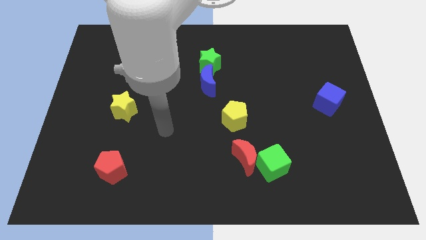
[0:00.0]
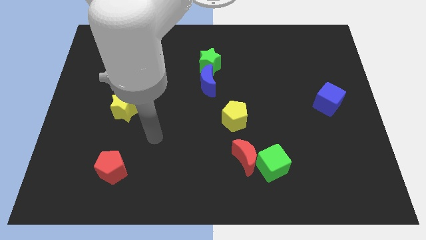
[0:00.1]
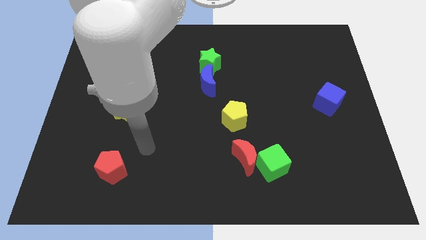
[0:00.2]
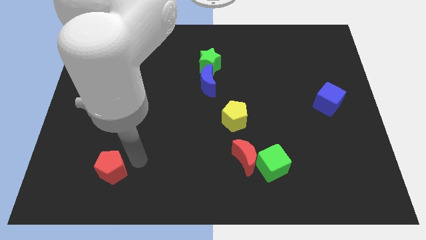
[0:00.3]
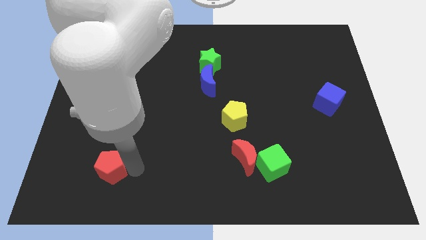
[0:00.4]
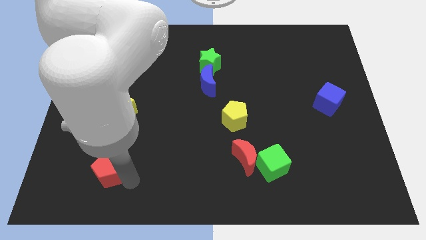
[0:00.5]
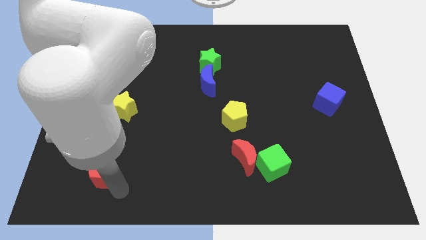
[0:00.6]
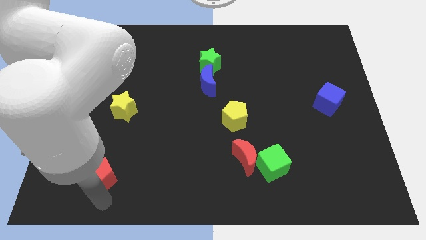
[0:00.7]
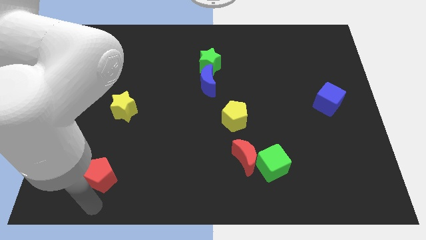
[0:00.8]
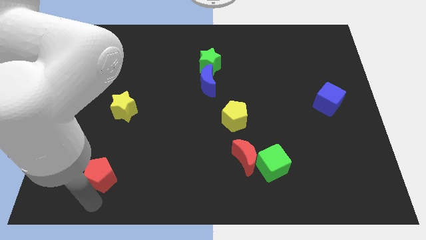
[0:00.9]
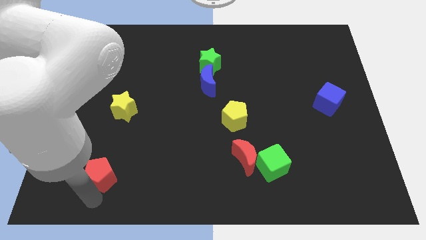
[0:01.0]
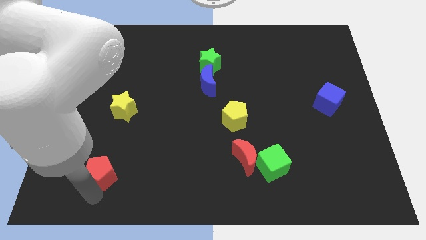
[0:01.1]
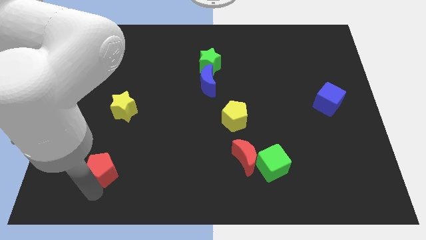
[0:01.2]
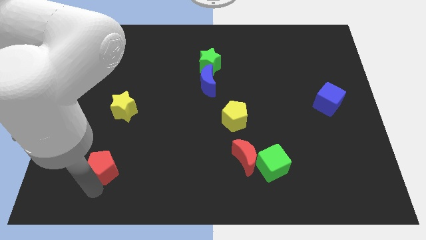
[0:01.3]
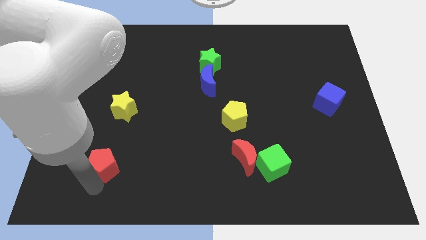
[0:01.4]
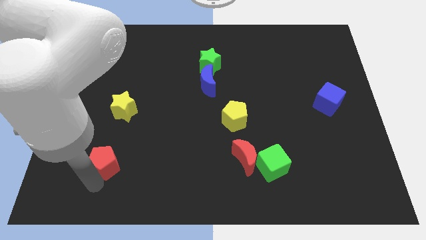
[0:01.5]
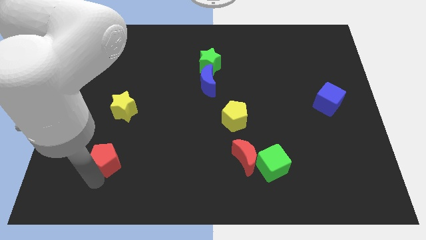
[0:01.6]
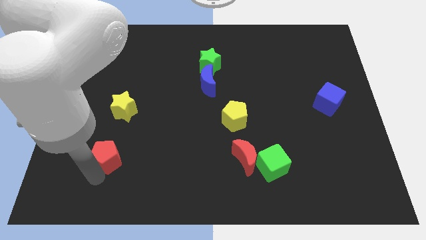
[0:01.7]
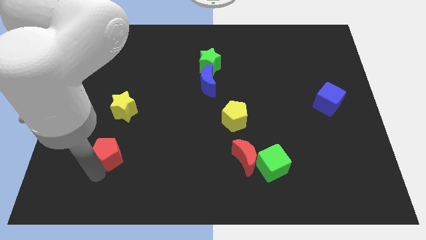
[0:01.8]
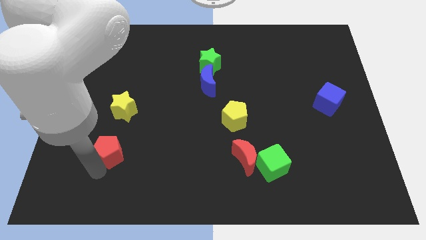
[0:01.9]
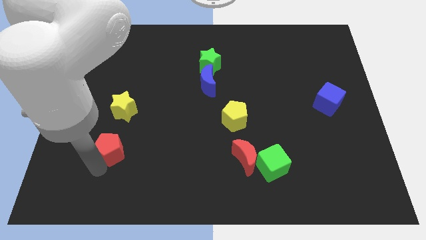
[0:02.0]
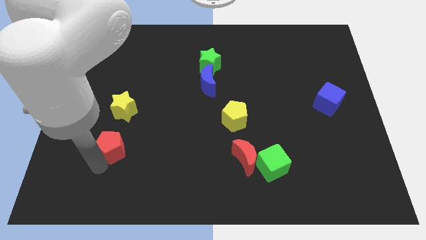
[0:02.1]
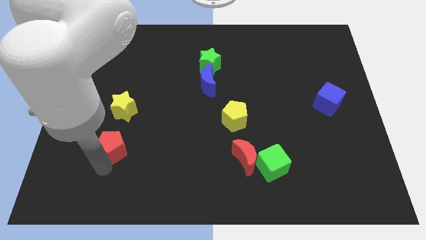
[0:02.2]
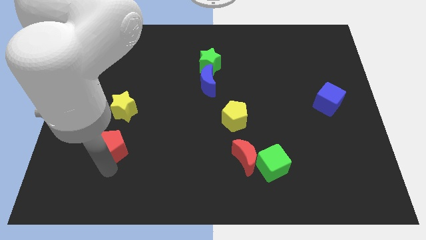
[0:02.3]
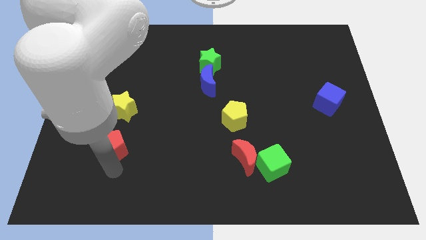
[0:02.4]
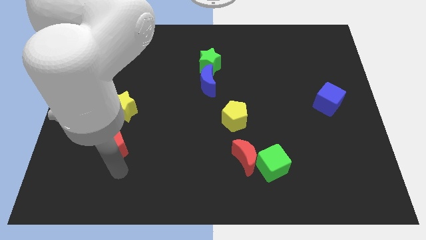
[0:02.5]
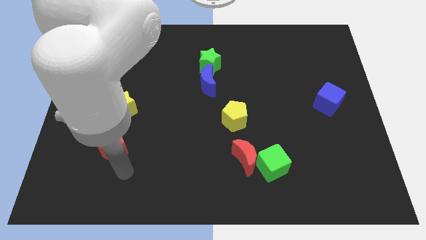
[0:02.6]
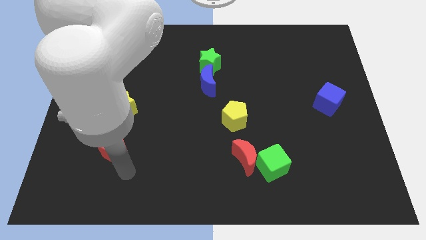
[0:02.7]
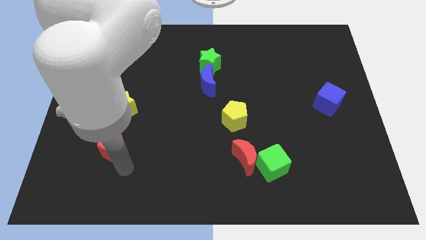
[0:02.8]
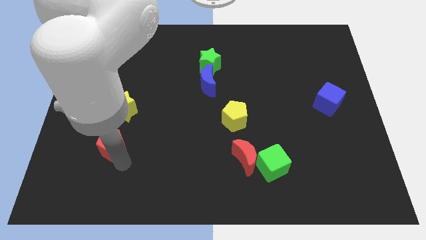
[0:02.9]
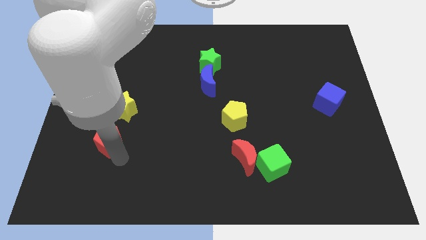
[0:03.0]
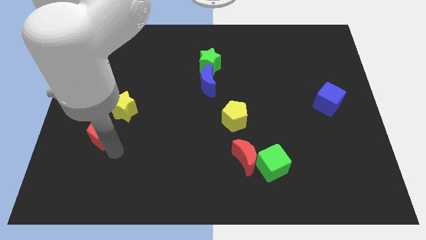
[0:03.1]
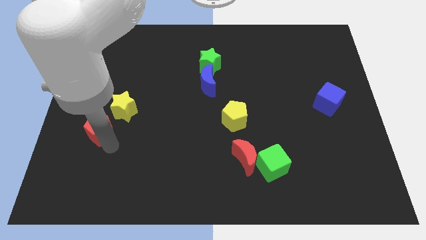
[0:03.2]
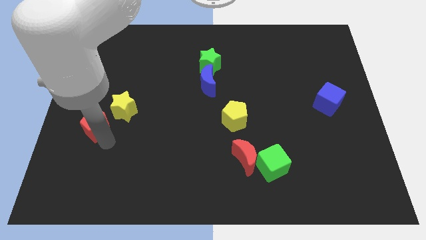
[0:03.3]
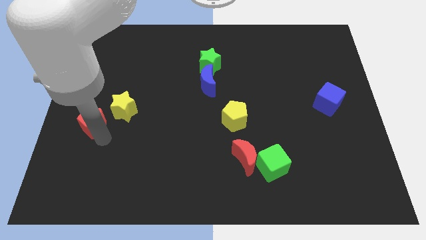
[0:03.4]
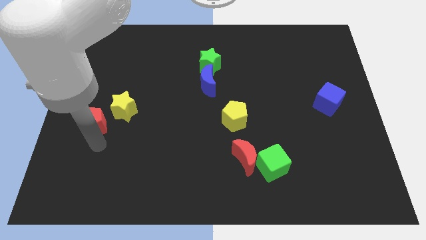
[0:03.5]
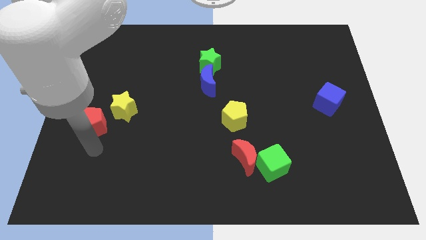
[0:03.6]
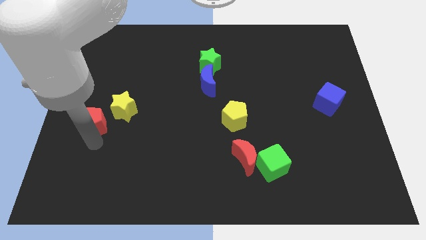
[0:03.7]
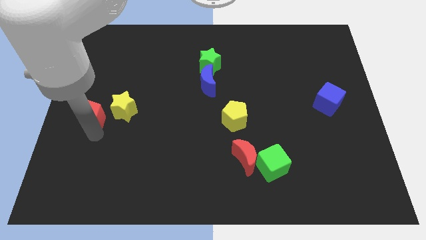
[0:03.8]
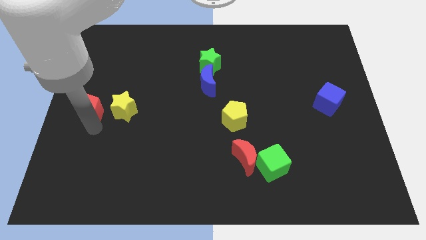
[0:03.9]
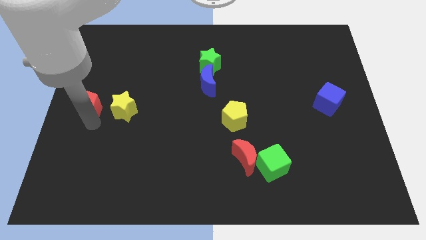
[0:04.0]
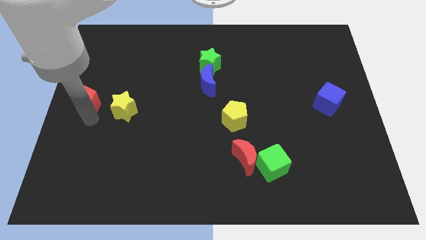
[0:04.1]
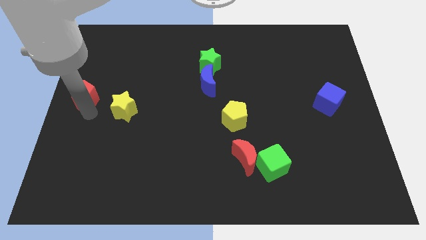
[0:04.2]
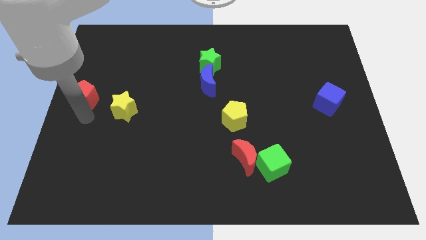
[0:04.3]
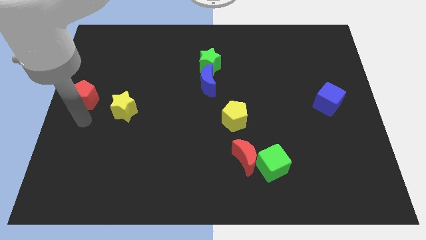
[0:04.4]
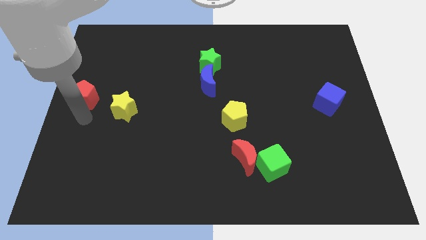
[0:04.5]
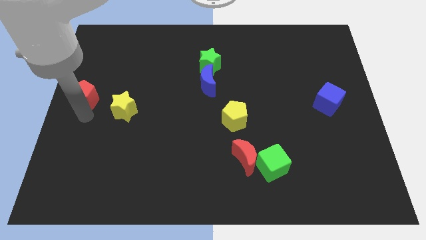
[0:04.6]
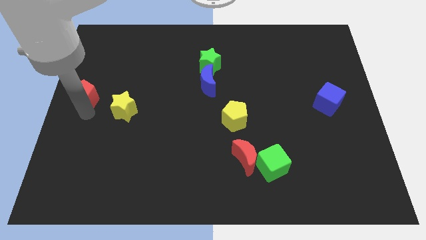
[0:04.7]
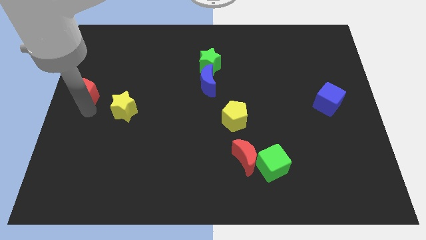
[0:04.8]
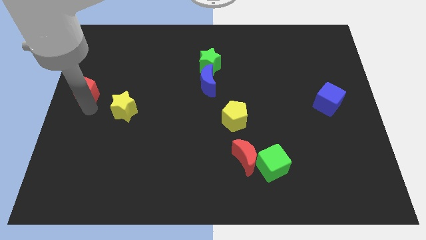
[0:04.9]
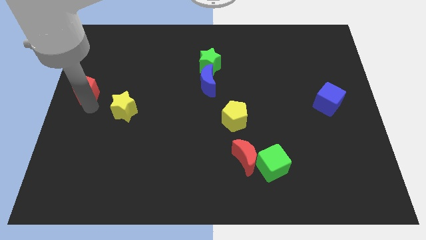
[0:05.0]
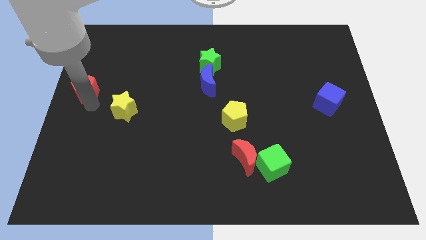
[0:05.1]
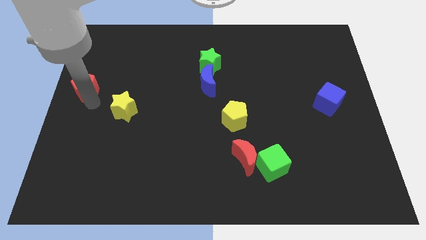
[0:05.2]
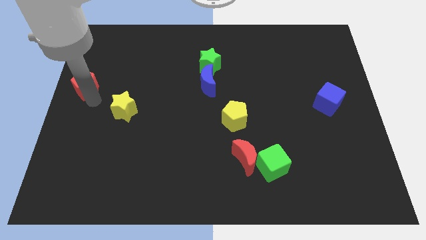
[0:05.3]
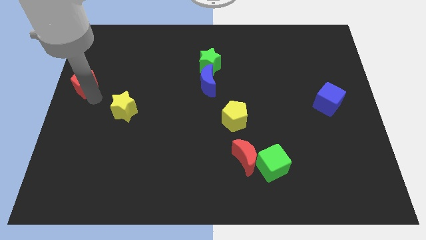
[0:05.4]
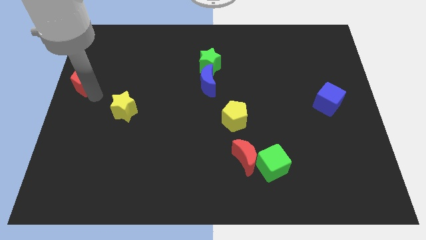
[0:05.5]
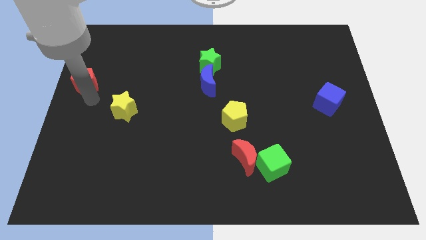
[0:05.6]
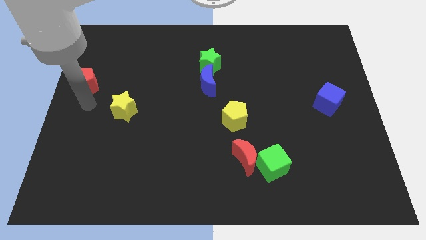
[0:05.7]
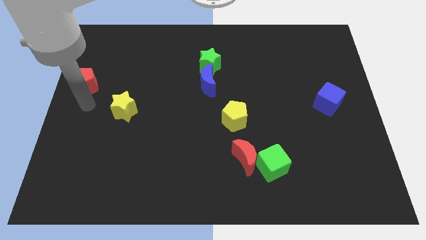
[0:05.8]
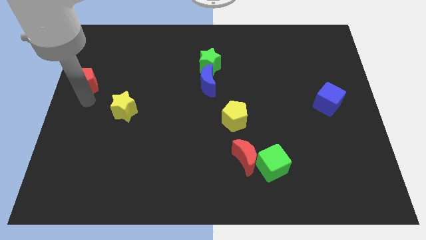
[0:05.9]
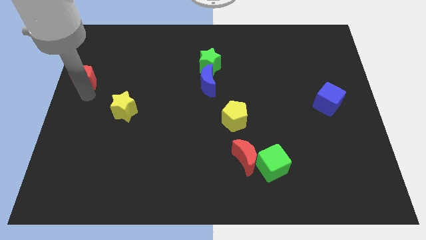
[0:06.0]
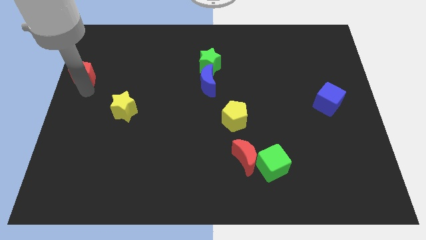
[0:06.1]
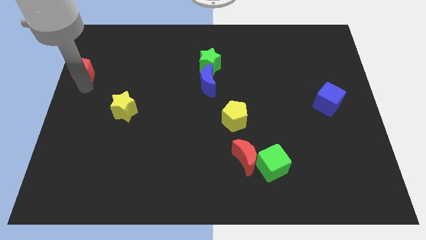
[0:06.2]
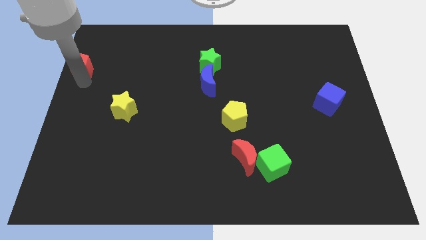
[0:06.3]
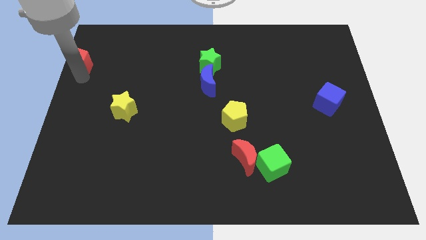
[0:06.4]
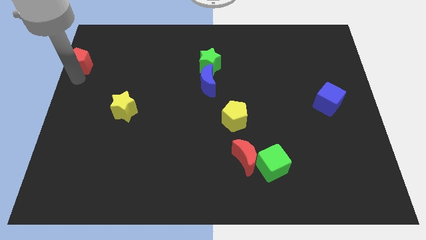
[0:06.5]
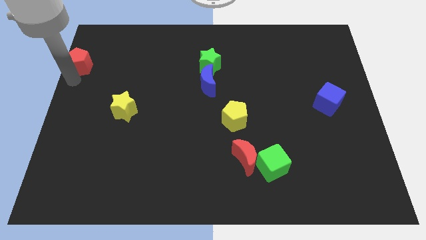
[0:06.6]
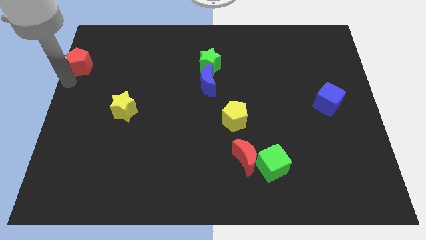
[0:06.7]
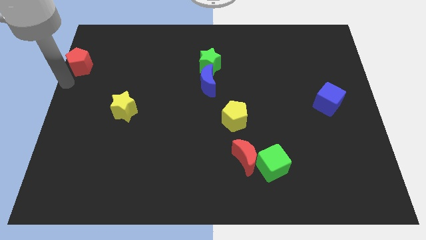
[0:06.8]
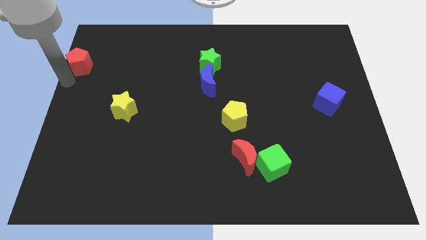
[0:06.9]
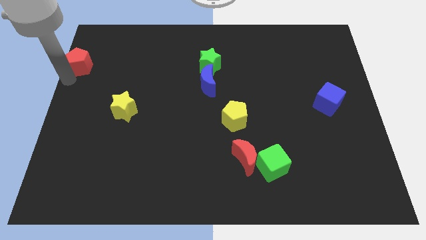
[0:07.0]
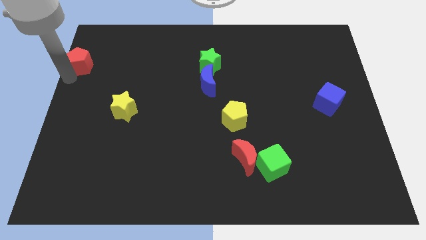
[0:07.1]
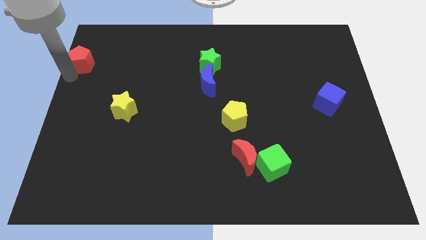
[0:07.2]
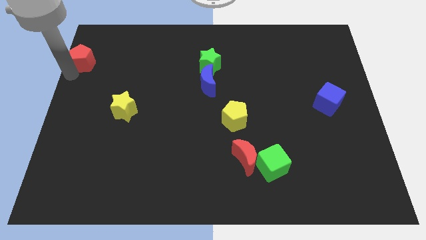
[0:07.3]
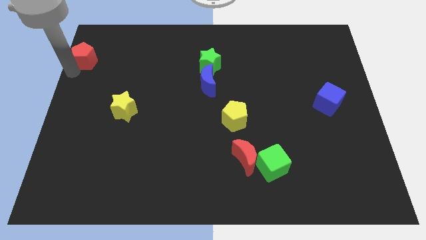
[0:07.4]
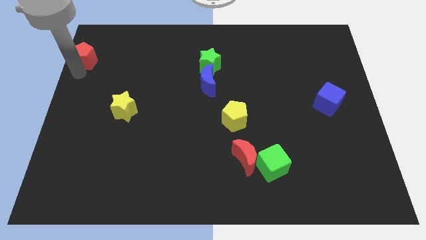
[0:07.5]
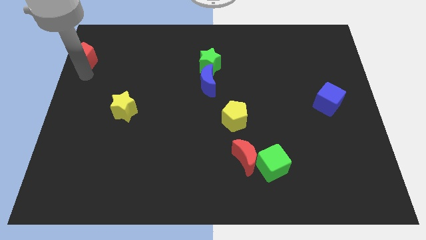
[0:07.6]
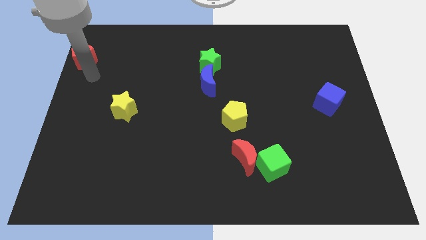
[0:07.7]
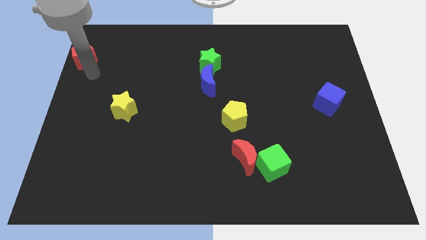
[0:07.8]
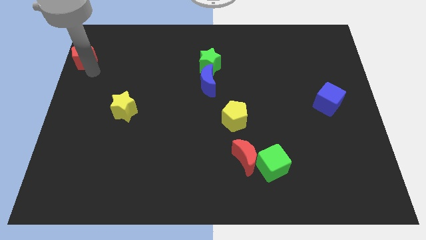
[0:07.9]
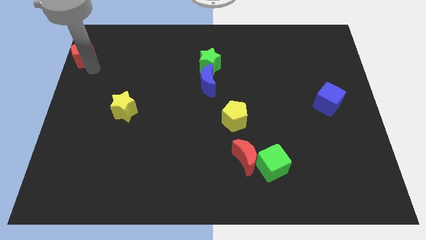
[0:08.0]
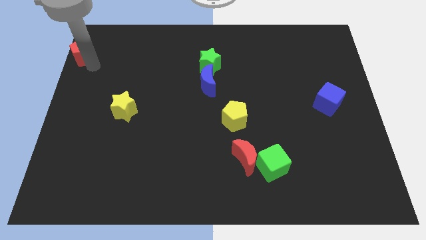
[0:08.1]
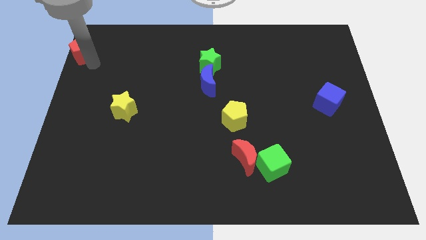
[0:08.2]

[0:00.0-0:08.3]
put the red pentagon to the top left
